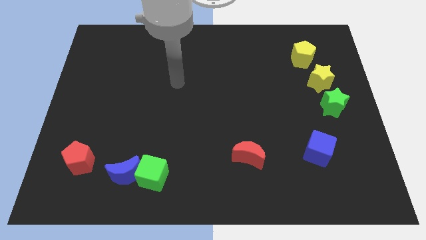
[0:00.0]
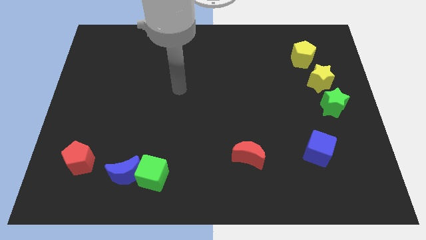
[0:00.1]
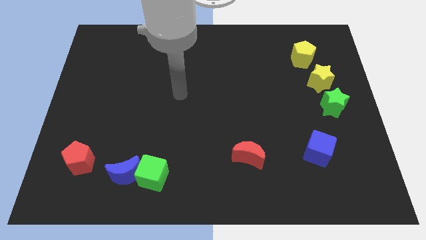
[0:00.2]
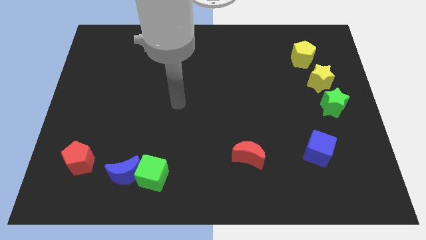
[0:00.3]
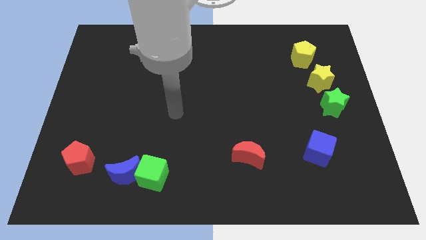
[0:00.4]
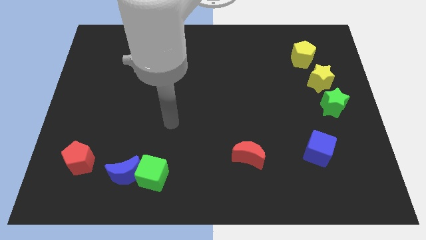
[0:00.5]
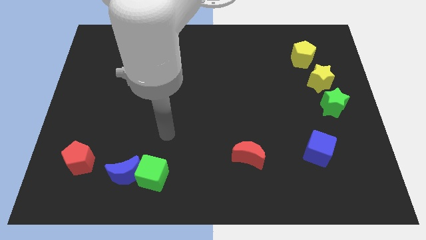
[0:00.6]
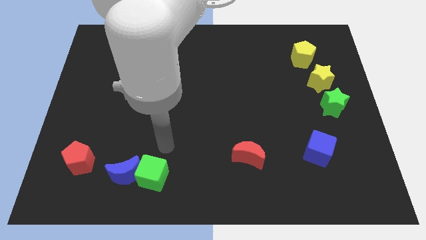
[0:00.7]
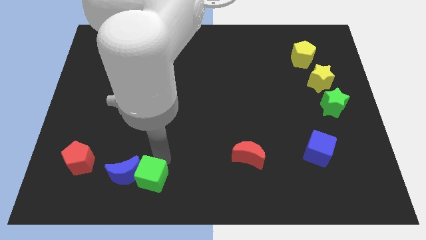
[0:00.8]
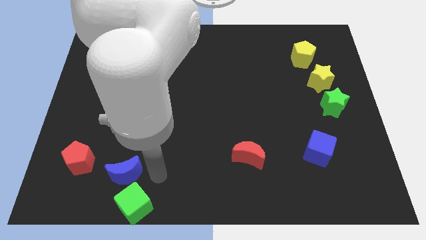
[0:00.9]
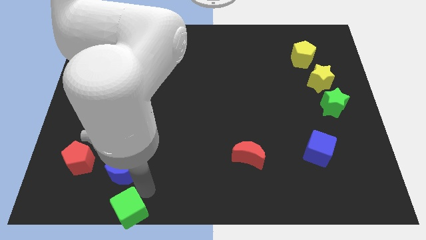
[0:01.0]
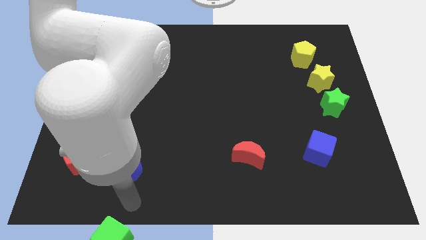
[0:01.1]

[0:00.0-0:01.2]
move the blue moon away from the green cube

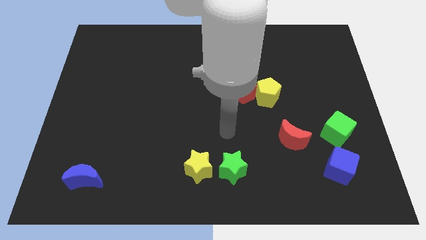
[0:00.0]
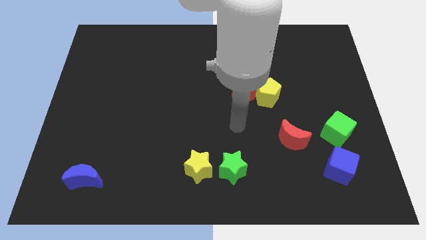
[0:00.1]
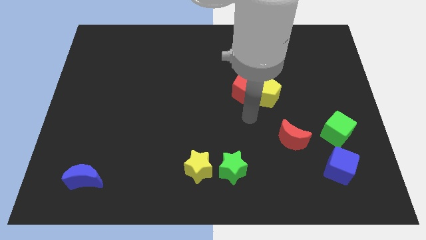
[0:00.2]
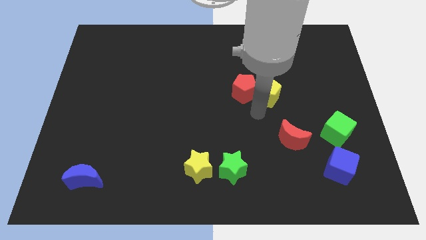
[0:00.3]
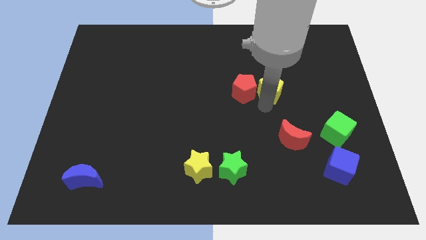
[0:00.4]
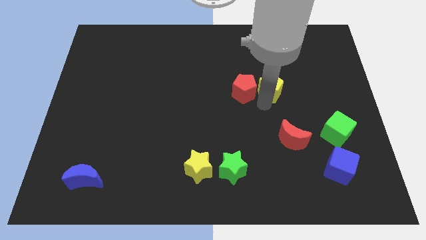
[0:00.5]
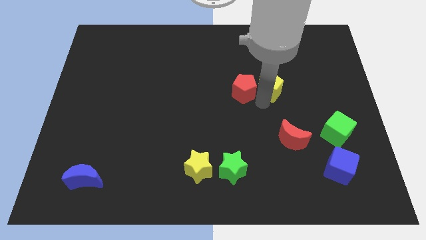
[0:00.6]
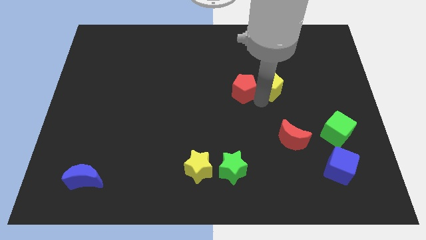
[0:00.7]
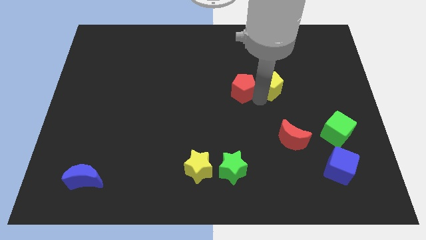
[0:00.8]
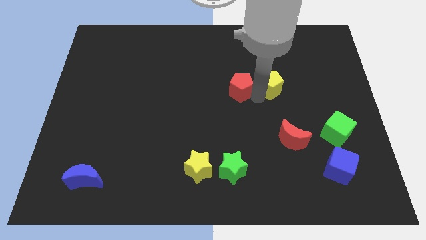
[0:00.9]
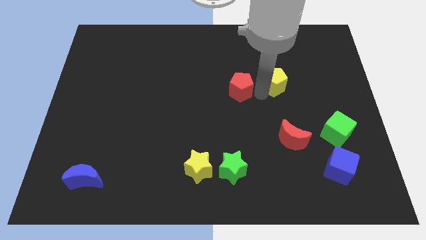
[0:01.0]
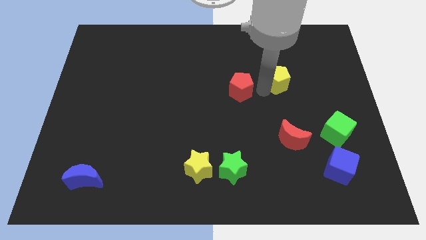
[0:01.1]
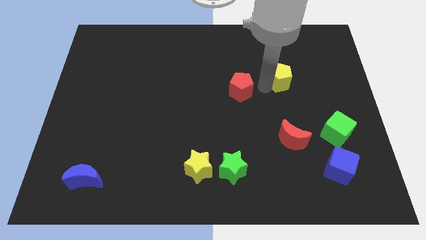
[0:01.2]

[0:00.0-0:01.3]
pull the red pentagon apart from the yellow pentagon

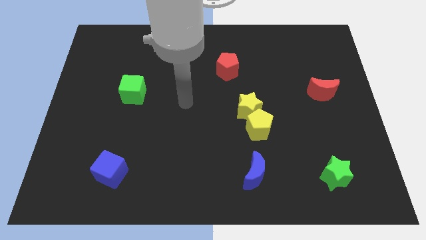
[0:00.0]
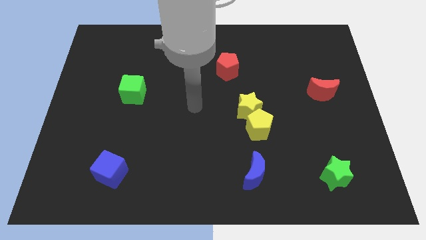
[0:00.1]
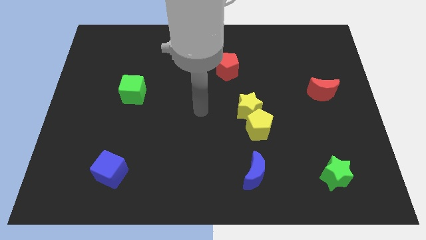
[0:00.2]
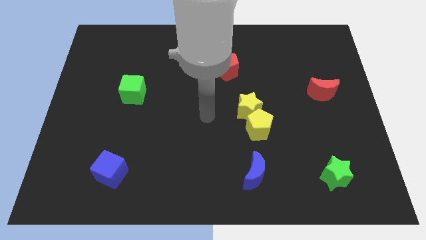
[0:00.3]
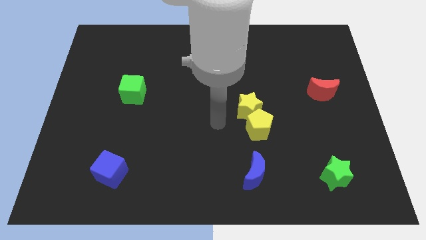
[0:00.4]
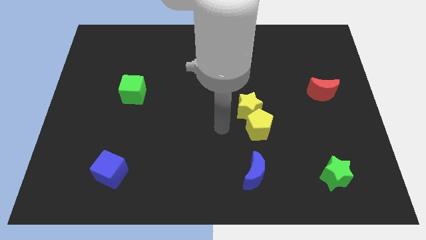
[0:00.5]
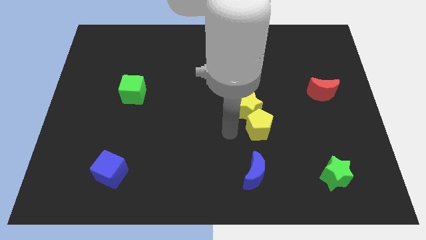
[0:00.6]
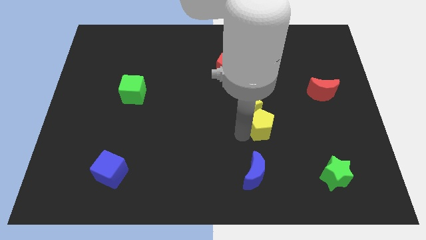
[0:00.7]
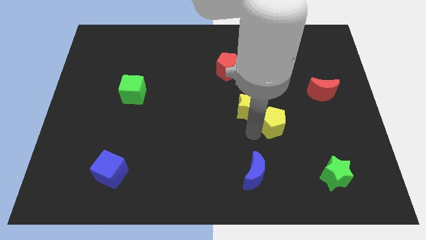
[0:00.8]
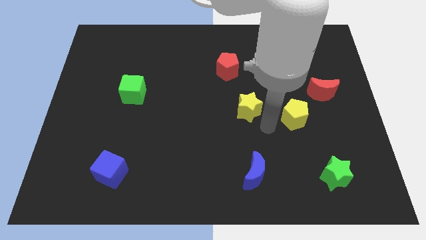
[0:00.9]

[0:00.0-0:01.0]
pull the yellow star apart from the yellow pentagon

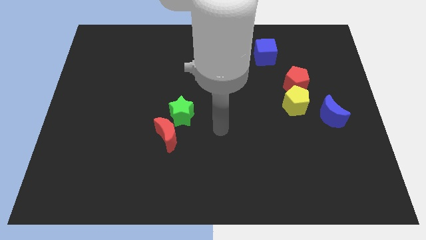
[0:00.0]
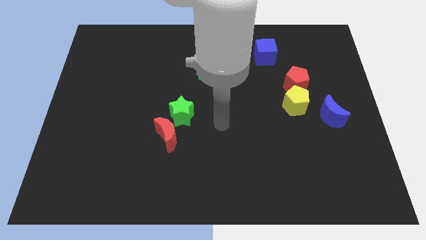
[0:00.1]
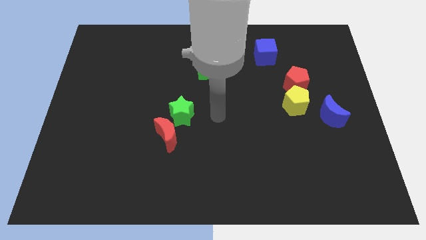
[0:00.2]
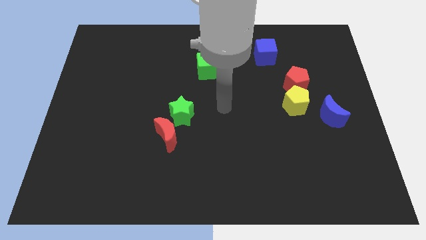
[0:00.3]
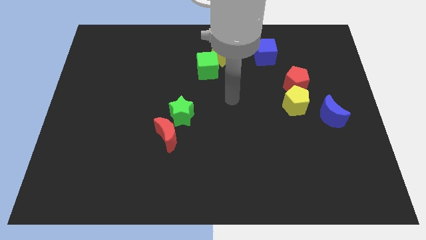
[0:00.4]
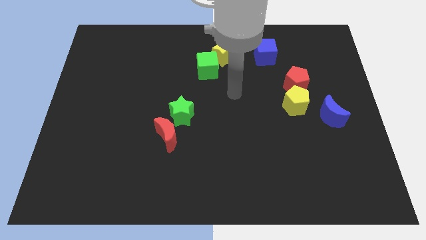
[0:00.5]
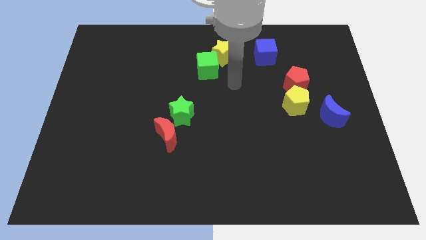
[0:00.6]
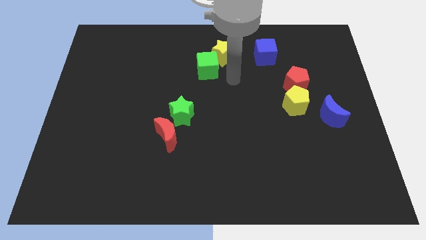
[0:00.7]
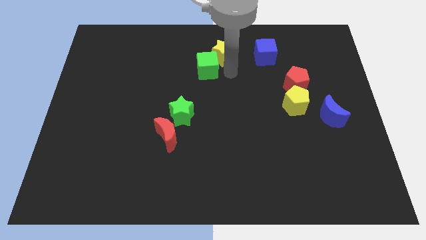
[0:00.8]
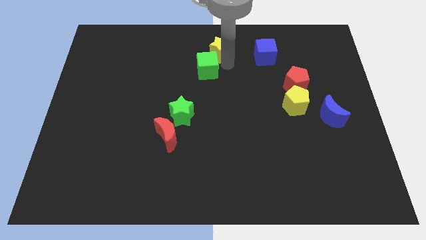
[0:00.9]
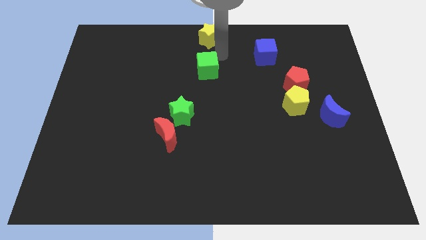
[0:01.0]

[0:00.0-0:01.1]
separate the green cube from the yellow star

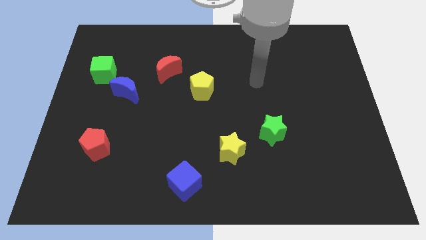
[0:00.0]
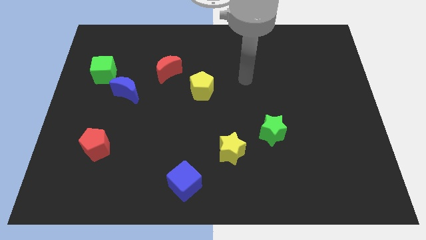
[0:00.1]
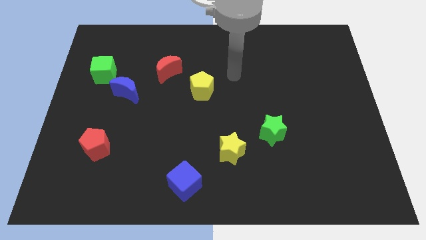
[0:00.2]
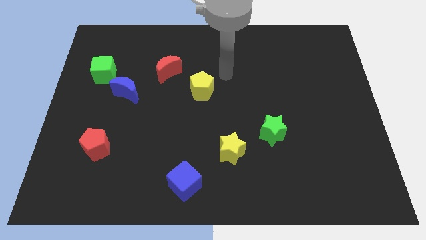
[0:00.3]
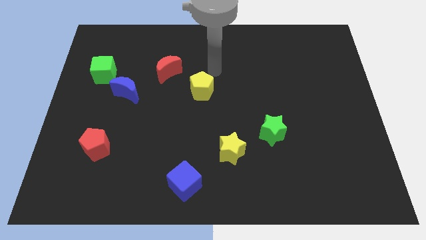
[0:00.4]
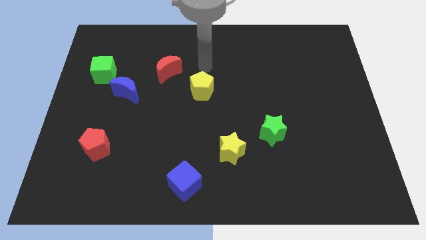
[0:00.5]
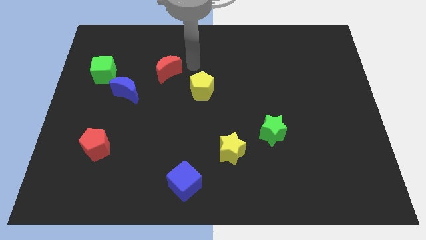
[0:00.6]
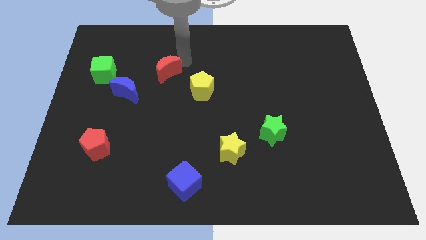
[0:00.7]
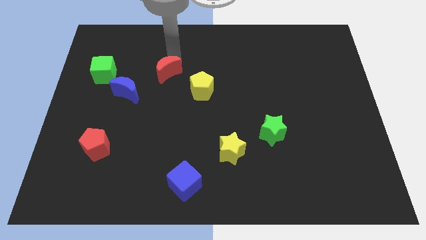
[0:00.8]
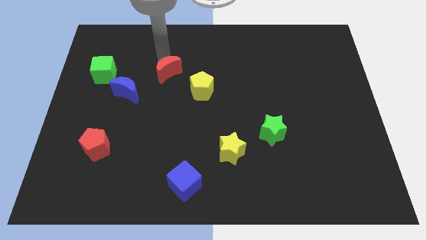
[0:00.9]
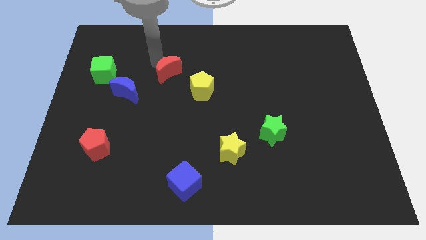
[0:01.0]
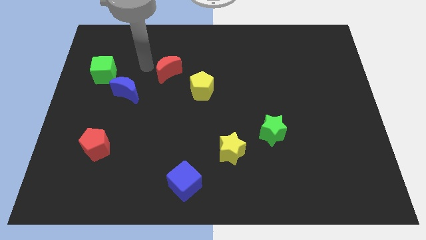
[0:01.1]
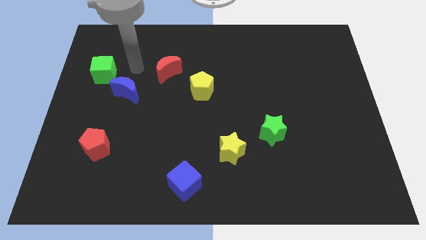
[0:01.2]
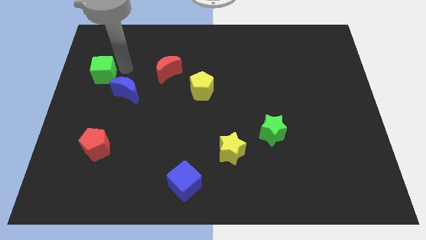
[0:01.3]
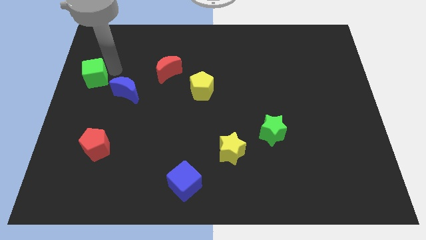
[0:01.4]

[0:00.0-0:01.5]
separate the blue moon from the green cube

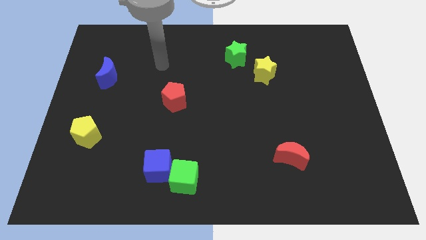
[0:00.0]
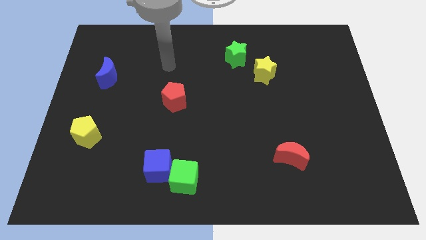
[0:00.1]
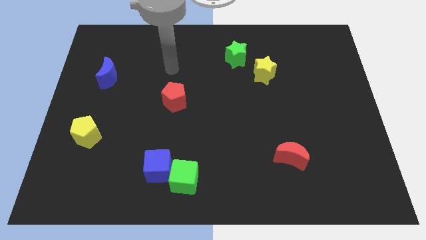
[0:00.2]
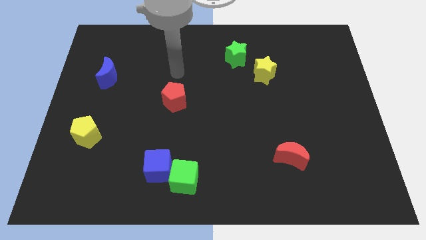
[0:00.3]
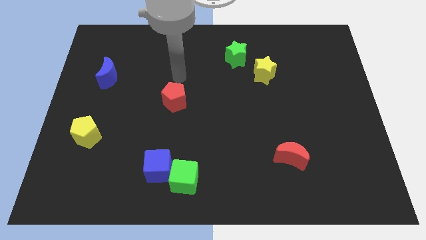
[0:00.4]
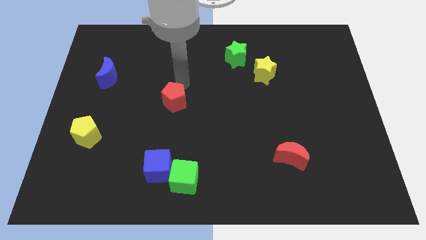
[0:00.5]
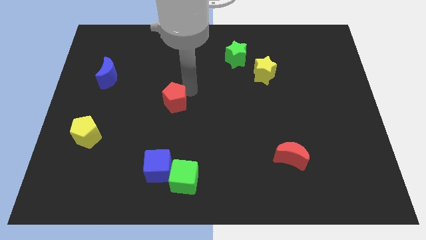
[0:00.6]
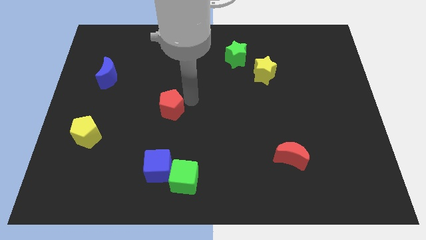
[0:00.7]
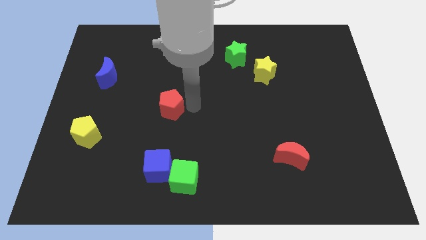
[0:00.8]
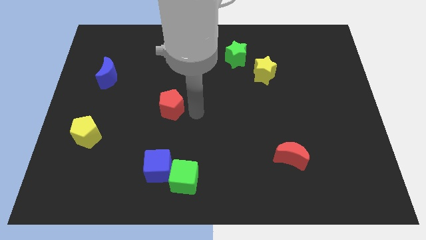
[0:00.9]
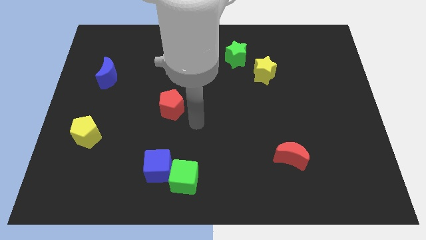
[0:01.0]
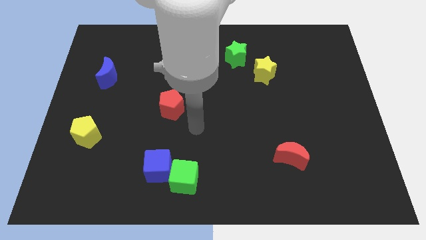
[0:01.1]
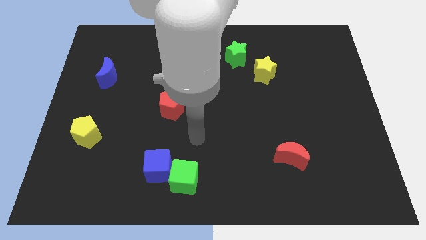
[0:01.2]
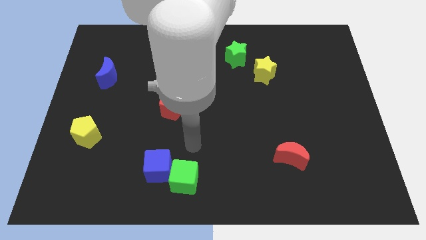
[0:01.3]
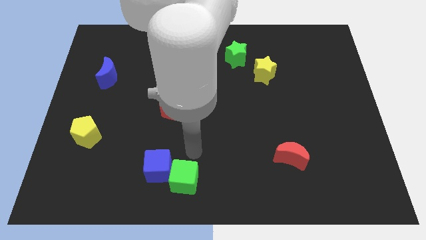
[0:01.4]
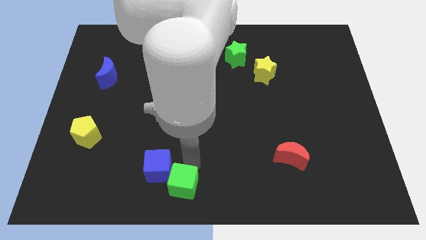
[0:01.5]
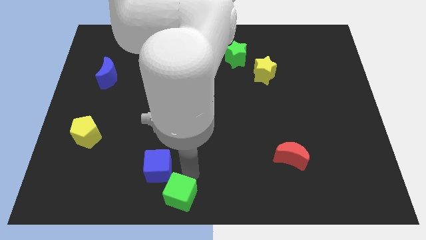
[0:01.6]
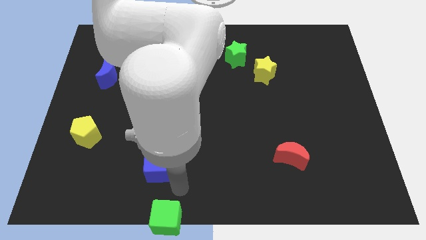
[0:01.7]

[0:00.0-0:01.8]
move the blue cube away from the green cube

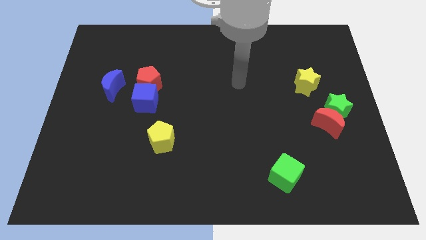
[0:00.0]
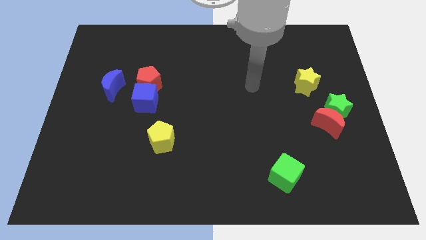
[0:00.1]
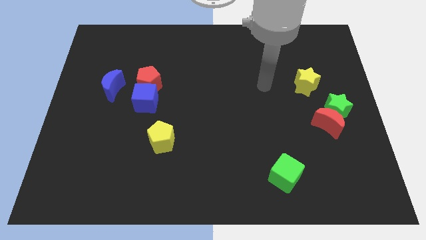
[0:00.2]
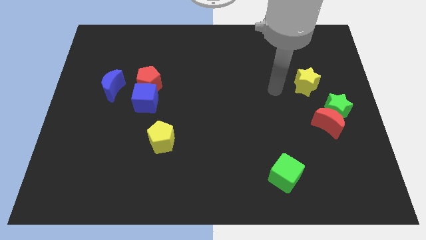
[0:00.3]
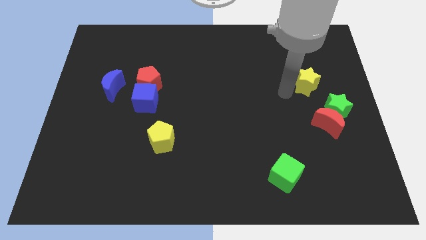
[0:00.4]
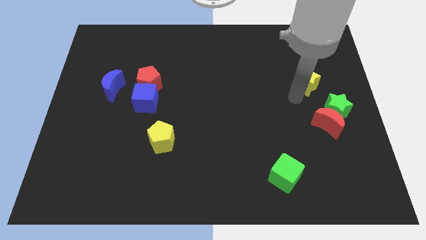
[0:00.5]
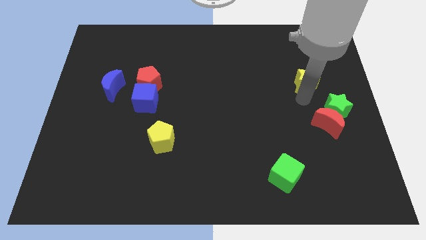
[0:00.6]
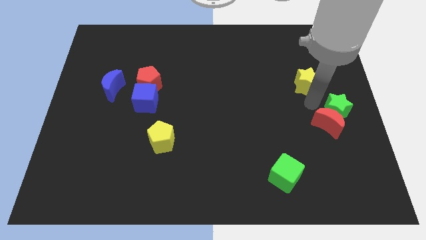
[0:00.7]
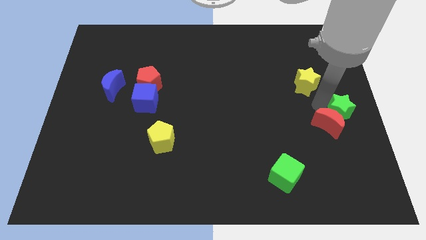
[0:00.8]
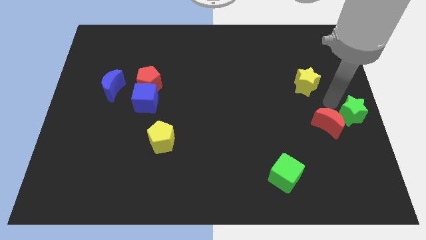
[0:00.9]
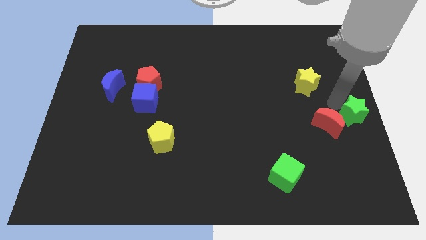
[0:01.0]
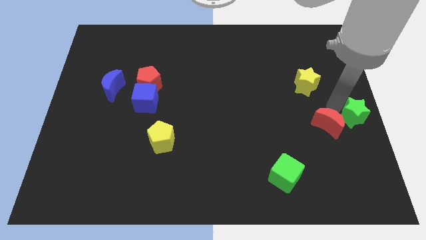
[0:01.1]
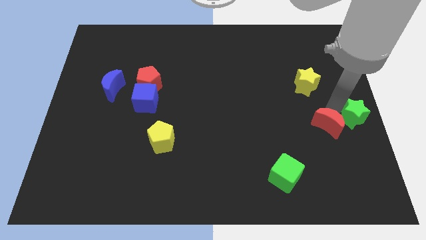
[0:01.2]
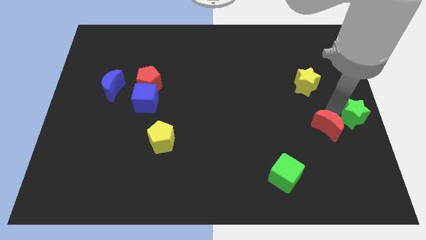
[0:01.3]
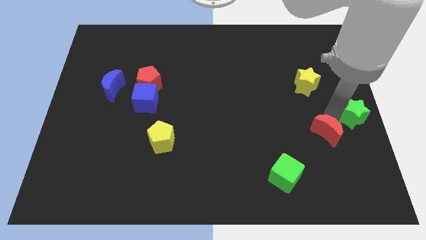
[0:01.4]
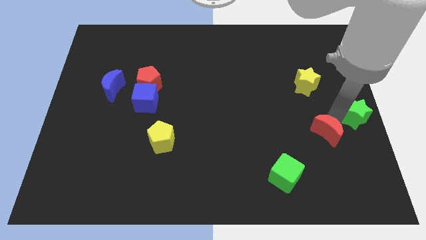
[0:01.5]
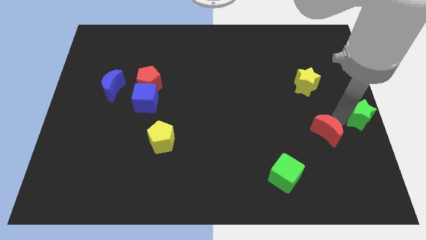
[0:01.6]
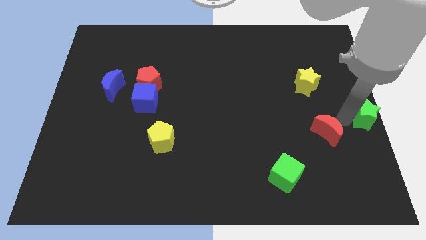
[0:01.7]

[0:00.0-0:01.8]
move the red moon away from the green star
